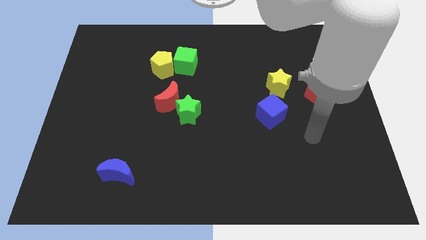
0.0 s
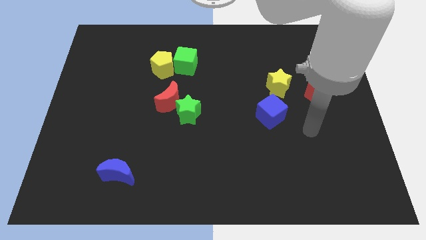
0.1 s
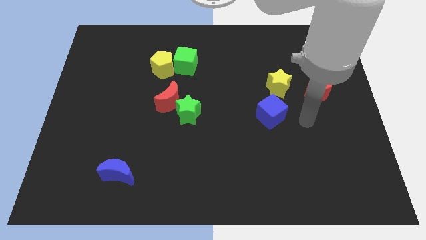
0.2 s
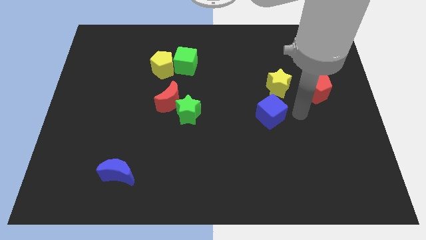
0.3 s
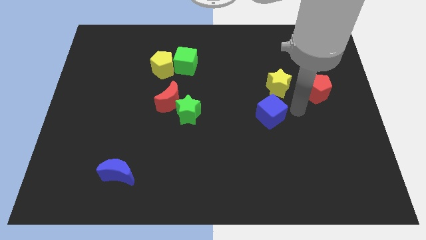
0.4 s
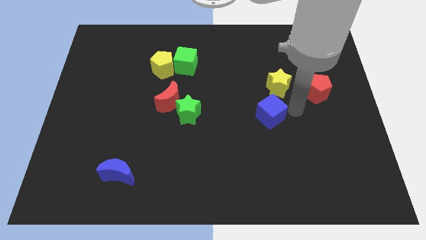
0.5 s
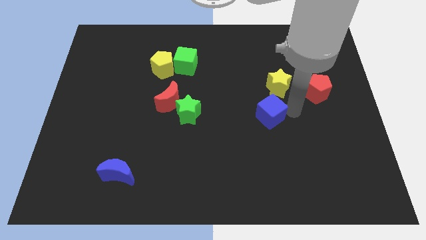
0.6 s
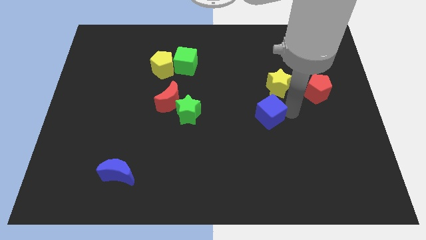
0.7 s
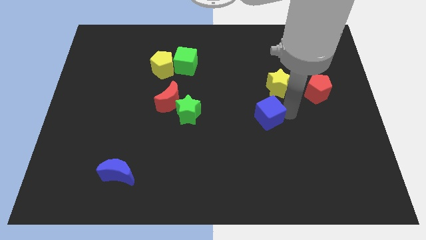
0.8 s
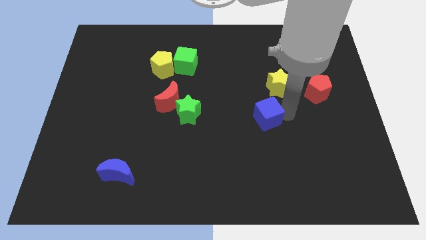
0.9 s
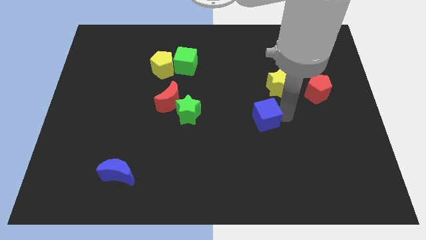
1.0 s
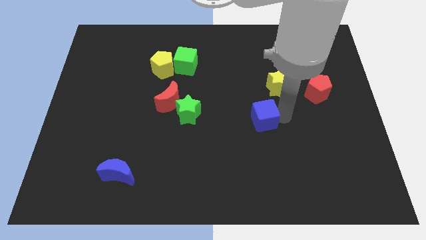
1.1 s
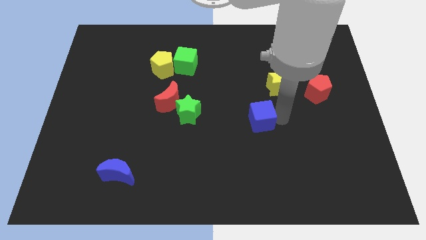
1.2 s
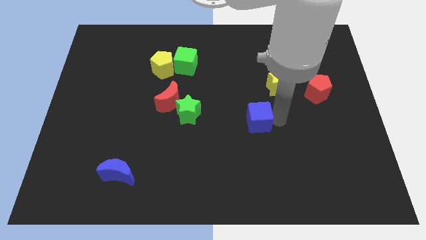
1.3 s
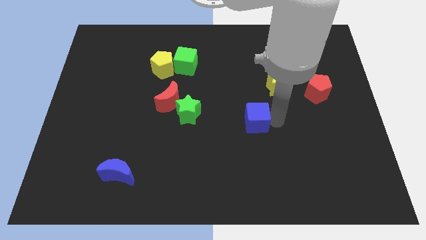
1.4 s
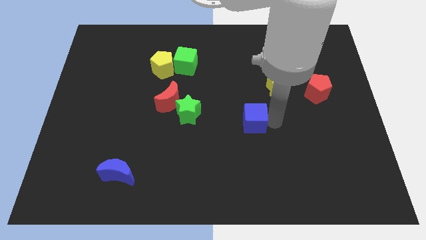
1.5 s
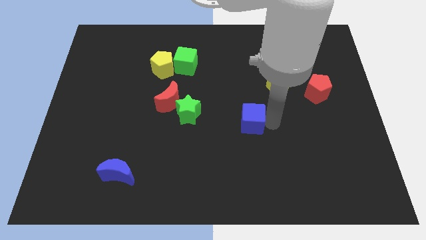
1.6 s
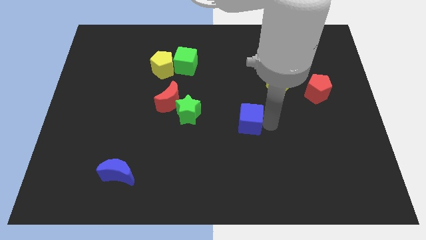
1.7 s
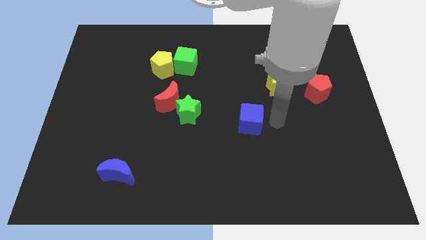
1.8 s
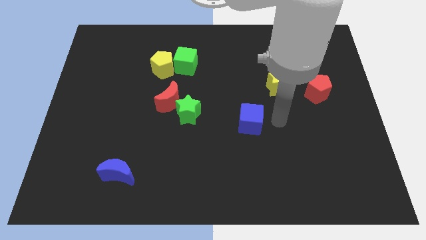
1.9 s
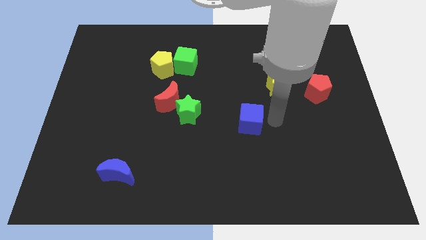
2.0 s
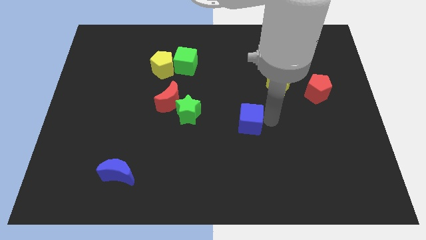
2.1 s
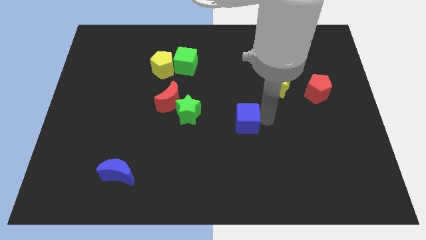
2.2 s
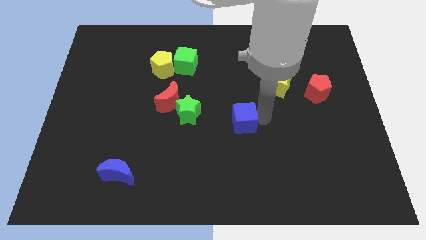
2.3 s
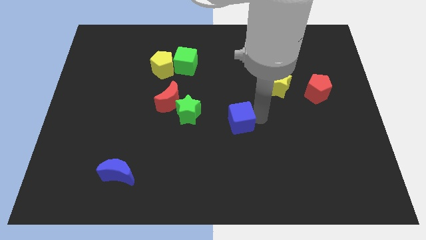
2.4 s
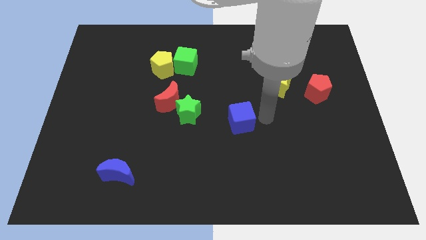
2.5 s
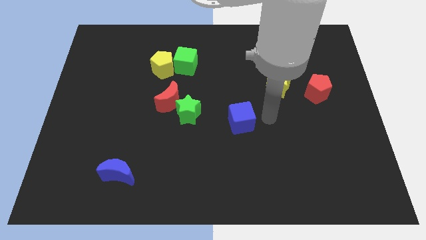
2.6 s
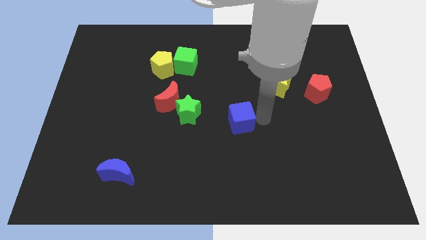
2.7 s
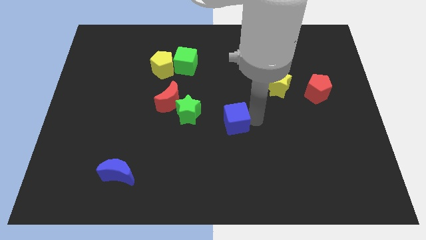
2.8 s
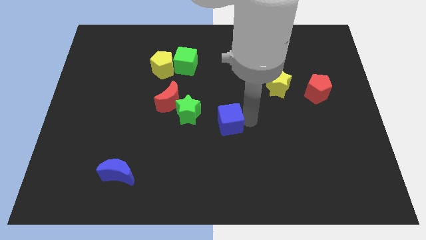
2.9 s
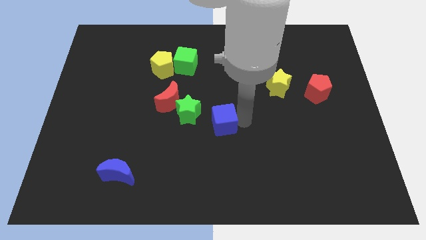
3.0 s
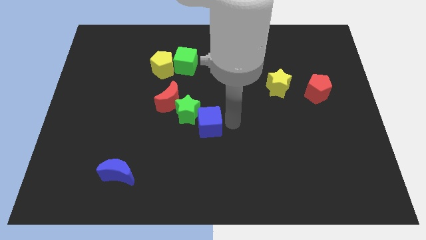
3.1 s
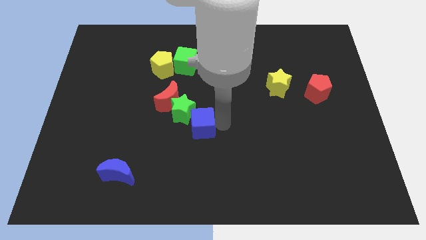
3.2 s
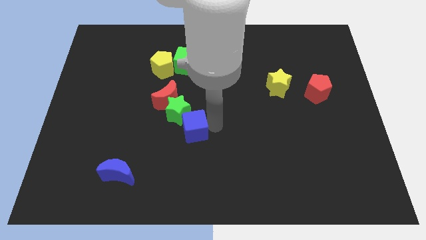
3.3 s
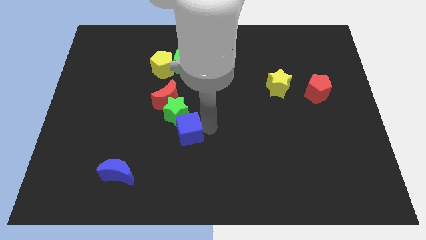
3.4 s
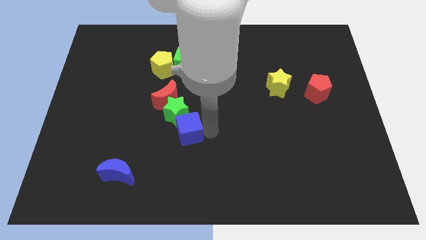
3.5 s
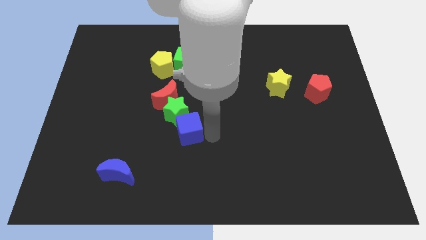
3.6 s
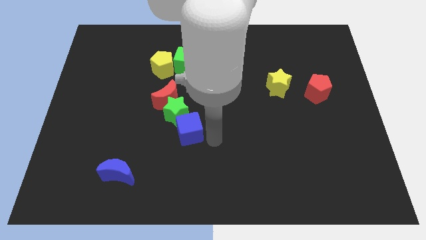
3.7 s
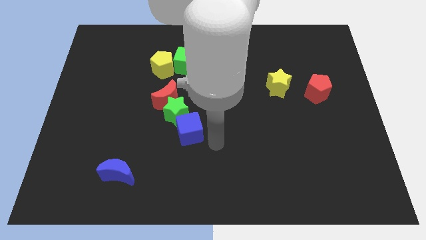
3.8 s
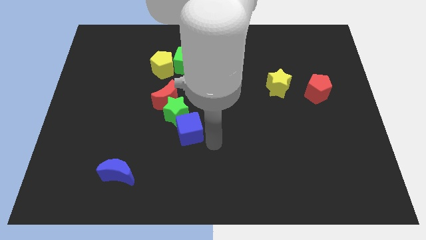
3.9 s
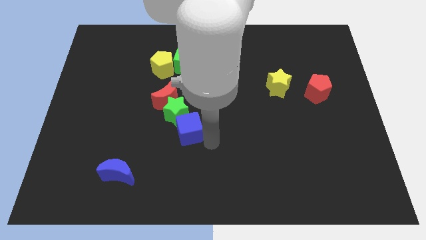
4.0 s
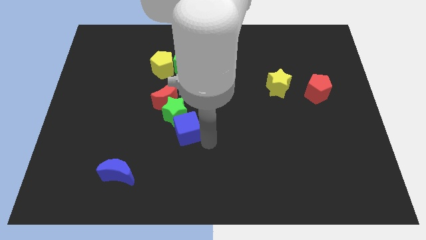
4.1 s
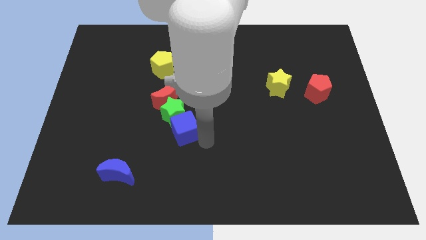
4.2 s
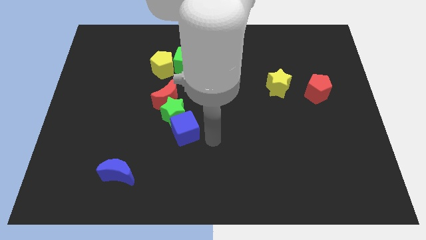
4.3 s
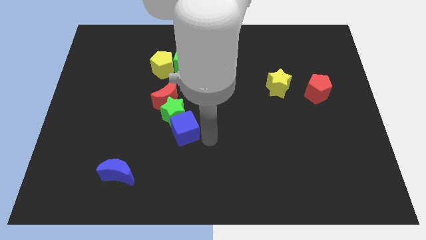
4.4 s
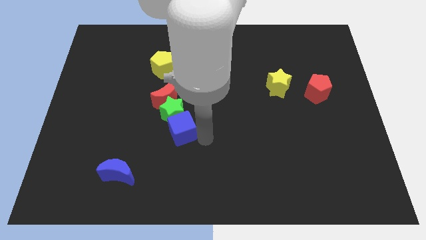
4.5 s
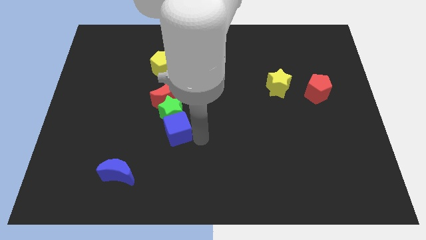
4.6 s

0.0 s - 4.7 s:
push the blue cube to the left

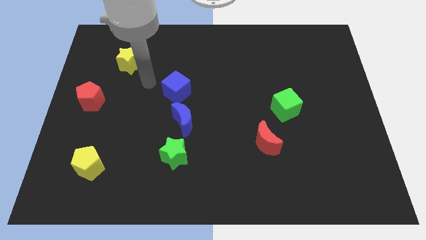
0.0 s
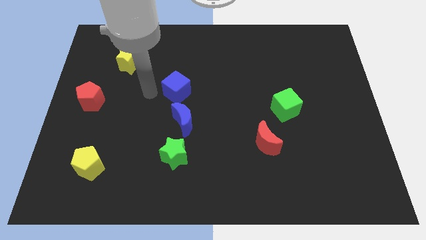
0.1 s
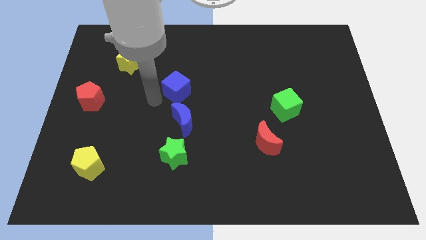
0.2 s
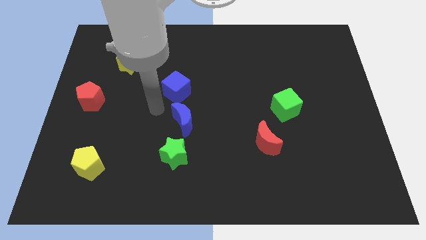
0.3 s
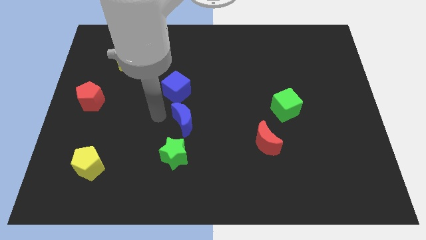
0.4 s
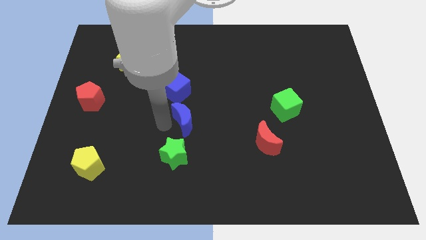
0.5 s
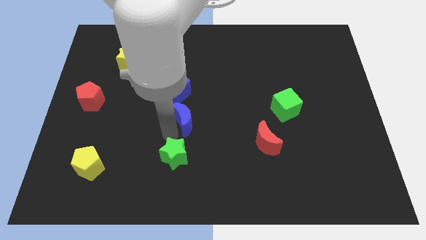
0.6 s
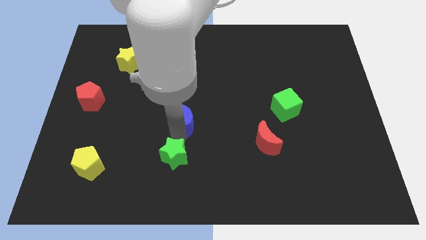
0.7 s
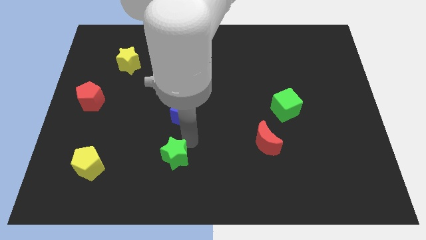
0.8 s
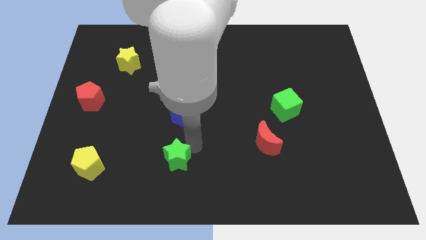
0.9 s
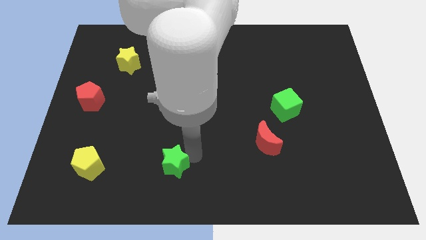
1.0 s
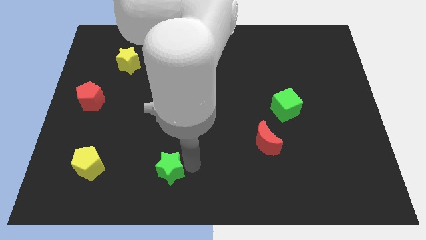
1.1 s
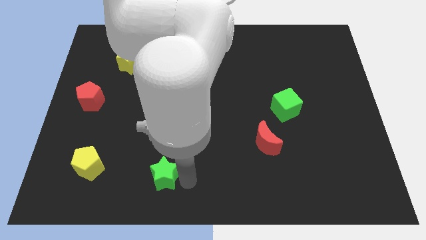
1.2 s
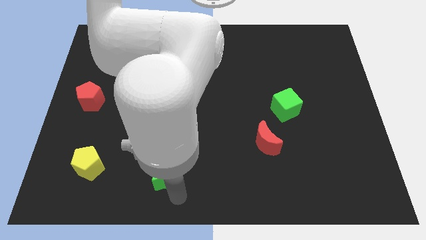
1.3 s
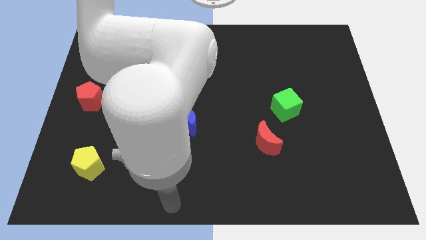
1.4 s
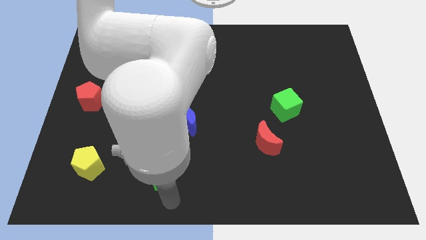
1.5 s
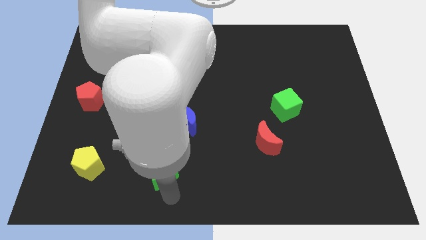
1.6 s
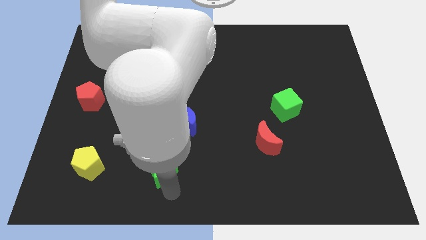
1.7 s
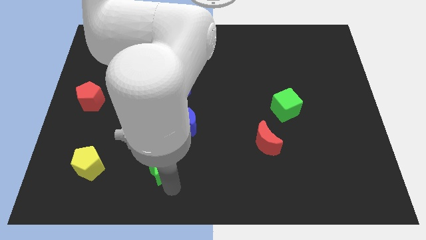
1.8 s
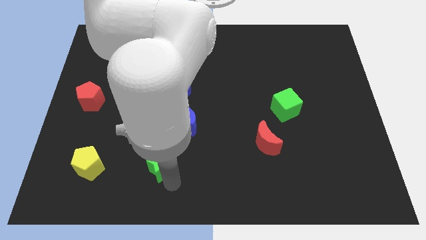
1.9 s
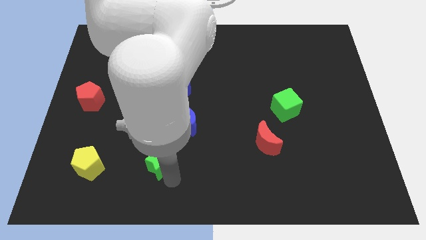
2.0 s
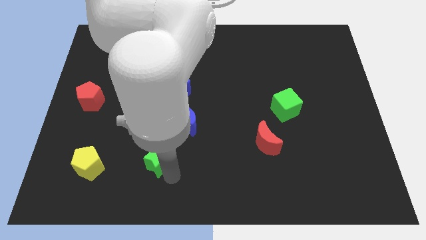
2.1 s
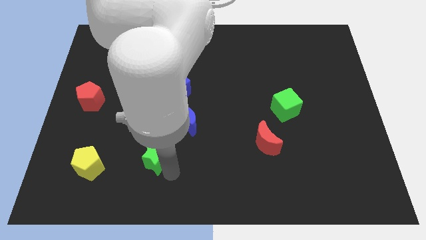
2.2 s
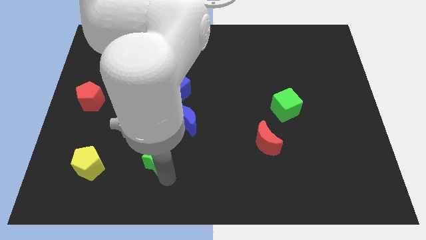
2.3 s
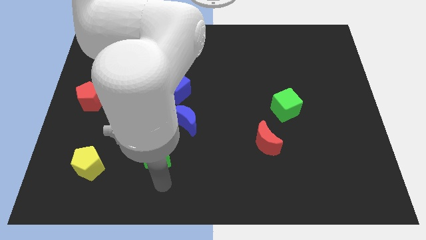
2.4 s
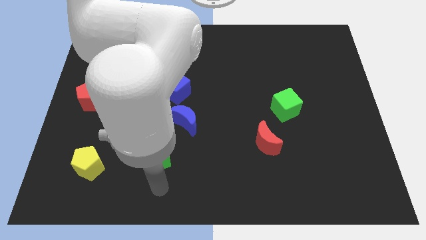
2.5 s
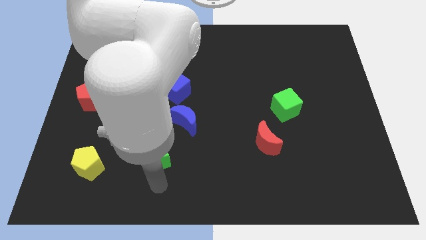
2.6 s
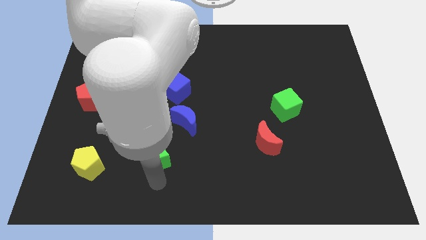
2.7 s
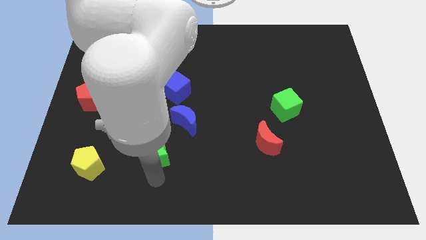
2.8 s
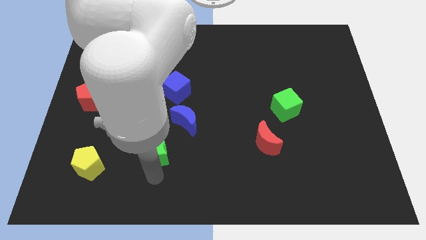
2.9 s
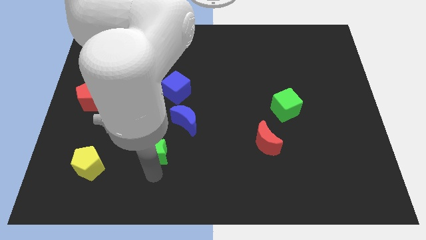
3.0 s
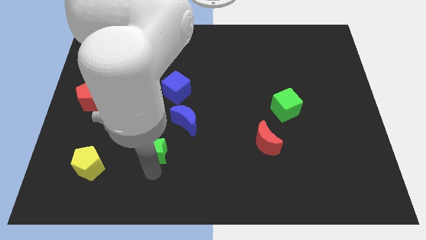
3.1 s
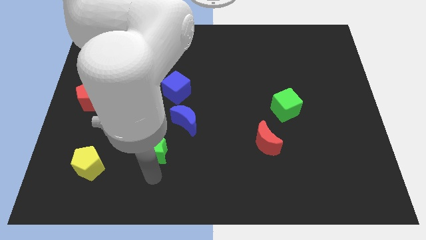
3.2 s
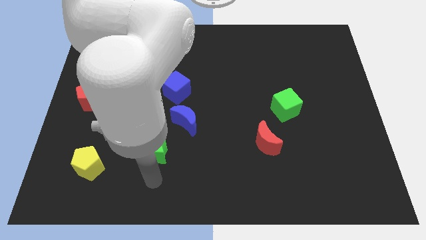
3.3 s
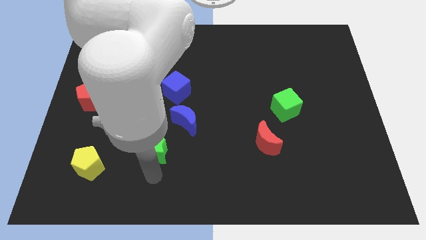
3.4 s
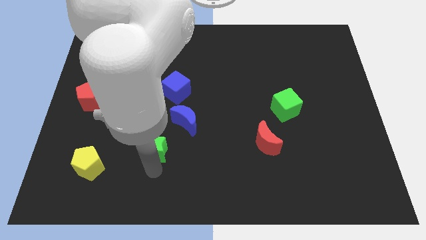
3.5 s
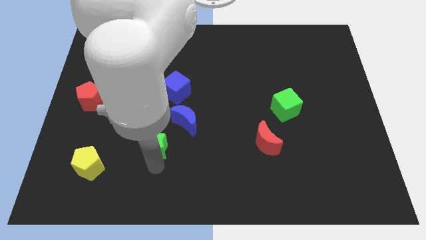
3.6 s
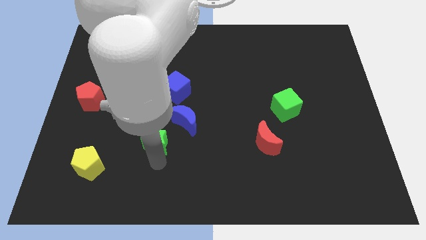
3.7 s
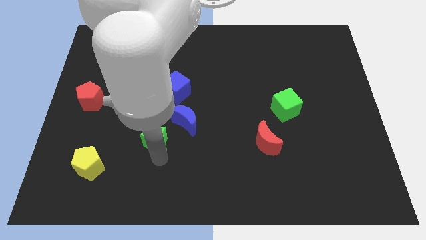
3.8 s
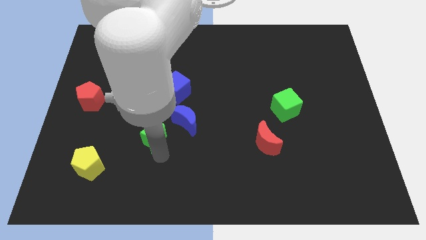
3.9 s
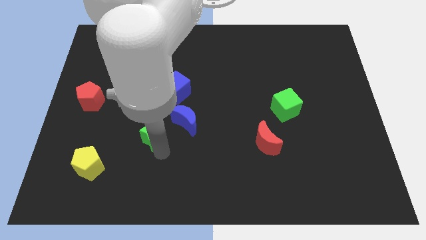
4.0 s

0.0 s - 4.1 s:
slide the green star diagonally up and left a little bit
